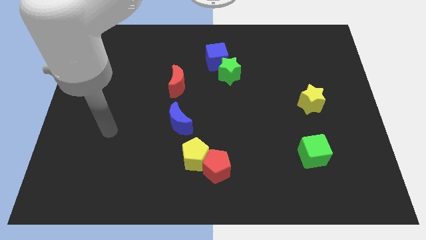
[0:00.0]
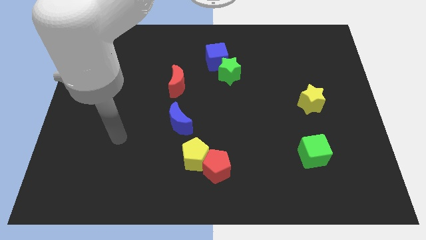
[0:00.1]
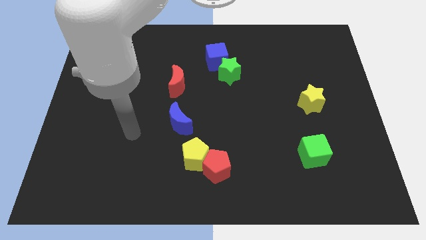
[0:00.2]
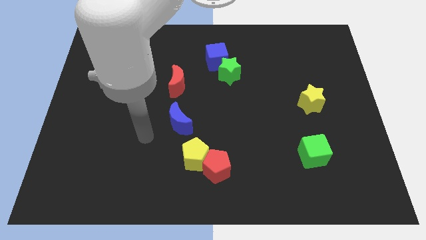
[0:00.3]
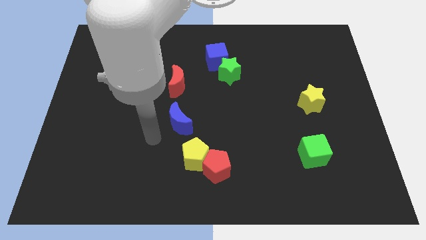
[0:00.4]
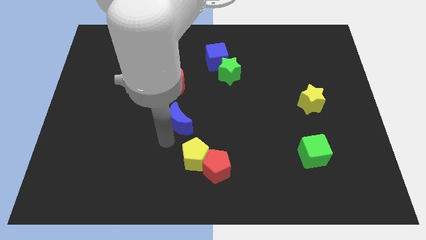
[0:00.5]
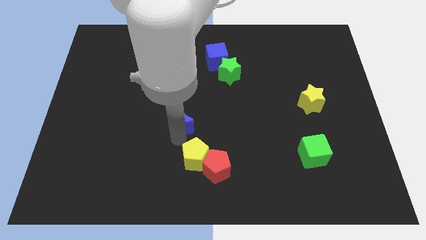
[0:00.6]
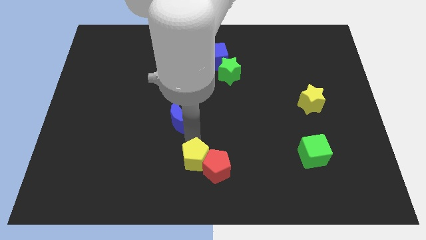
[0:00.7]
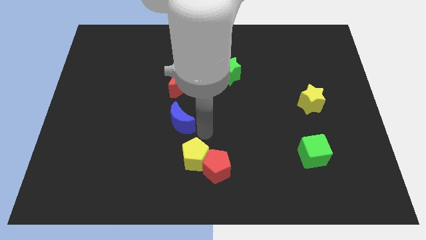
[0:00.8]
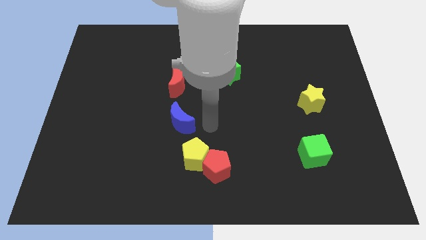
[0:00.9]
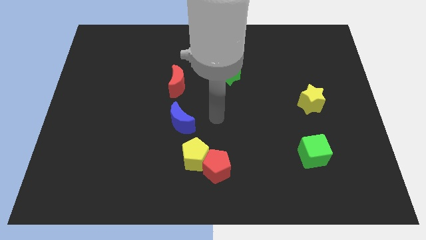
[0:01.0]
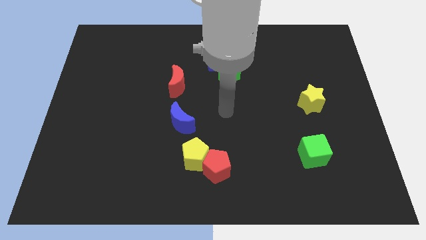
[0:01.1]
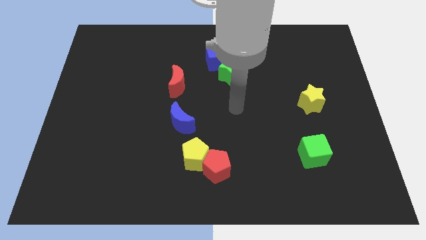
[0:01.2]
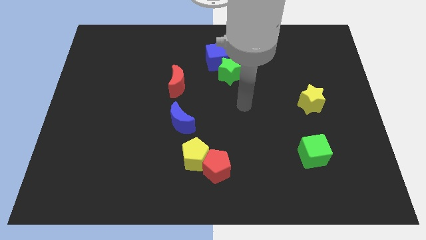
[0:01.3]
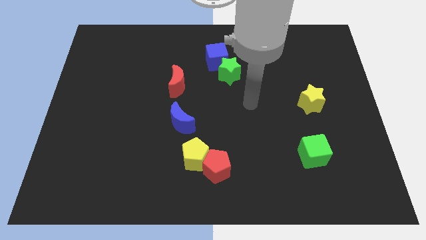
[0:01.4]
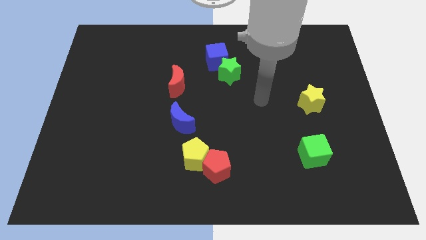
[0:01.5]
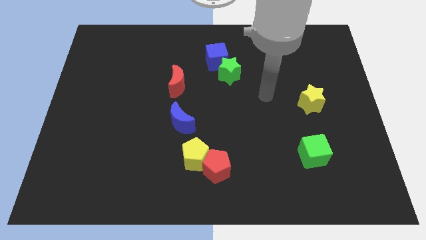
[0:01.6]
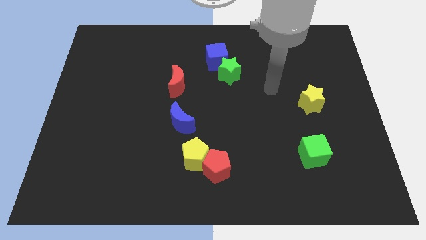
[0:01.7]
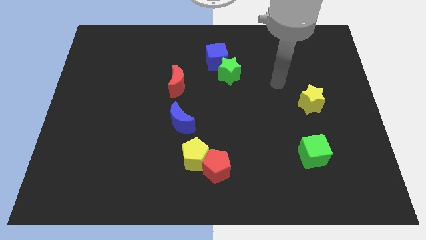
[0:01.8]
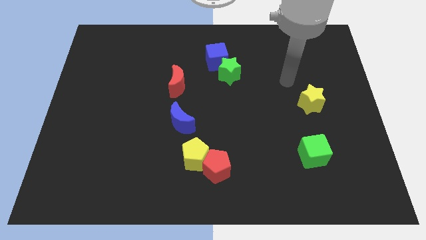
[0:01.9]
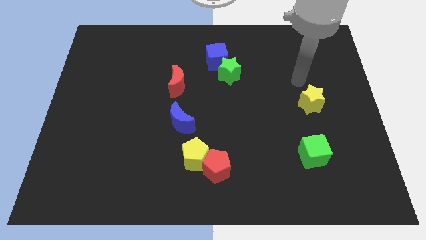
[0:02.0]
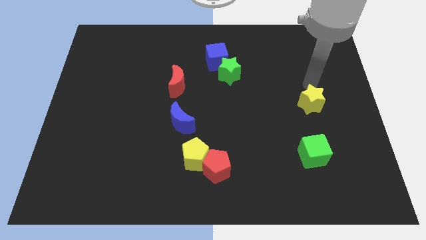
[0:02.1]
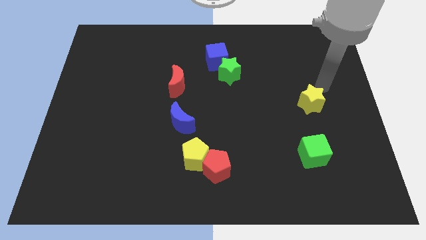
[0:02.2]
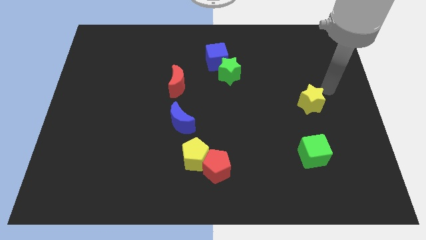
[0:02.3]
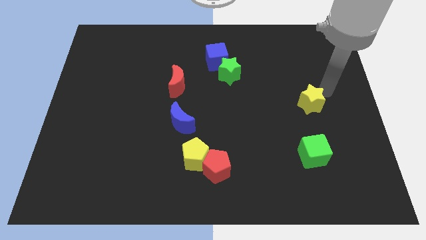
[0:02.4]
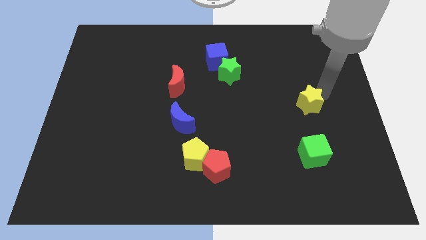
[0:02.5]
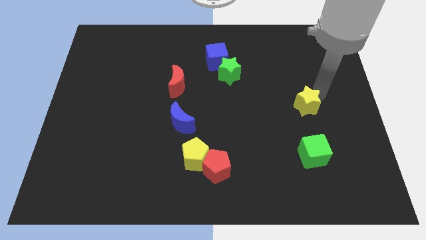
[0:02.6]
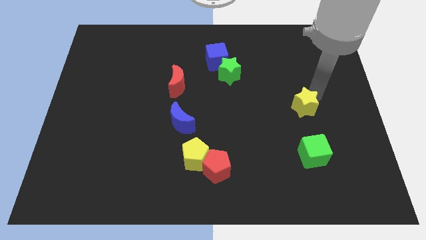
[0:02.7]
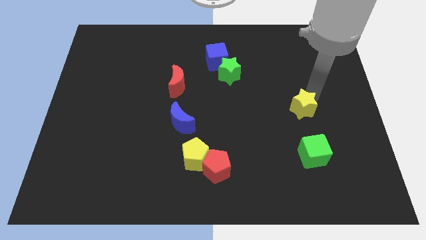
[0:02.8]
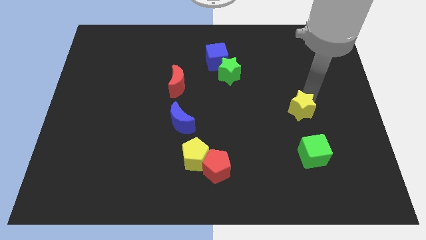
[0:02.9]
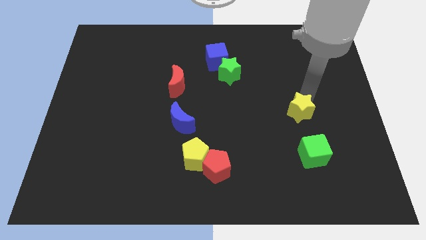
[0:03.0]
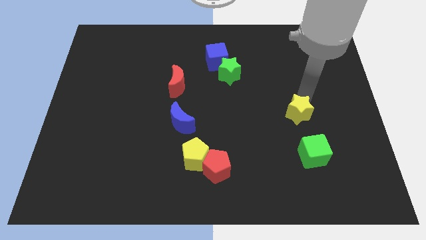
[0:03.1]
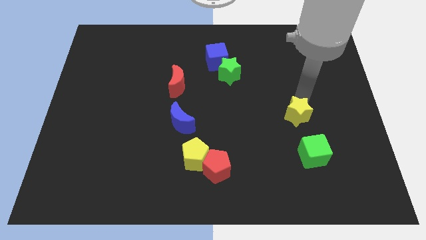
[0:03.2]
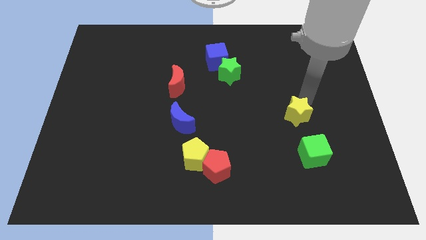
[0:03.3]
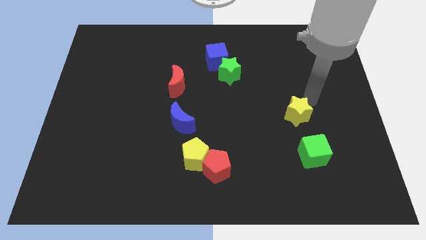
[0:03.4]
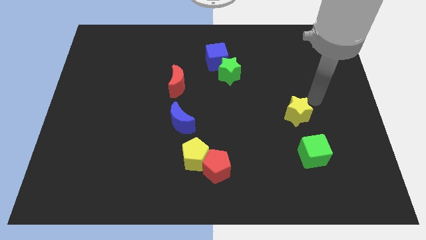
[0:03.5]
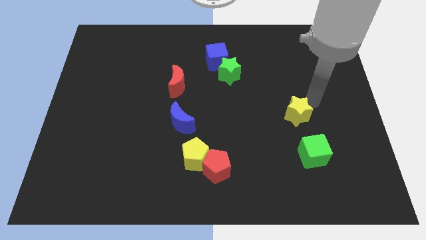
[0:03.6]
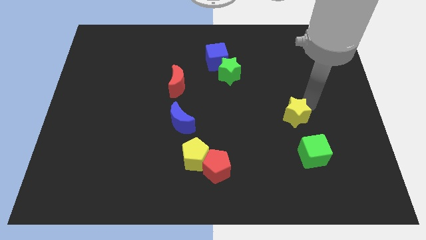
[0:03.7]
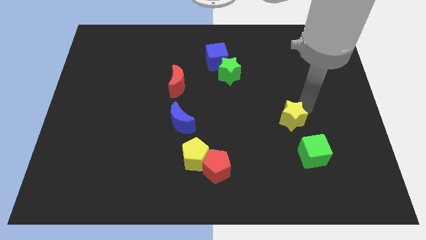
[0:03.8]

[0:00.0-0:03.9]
push the yellow star down and left a bit

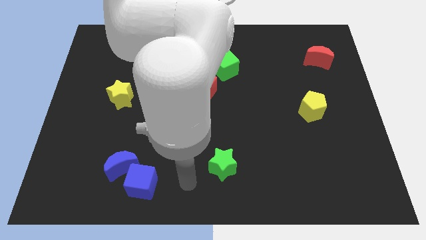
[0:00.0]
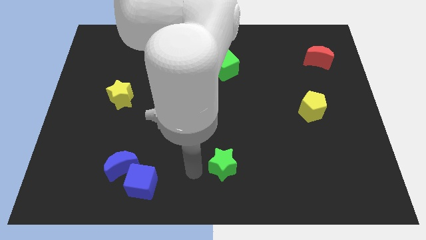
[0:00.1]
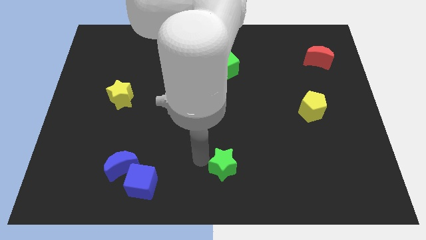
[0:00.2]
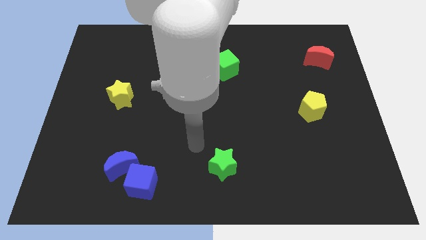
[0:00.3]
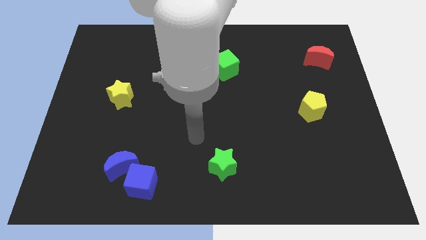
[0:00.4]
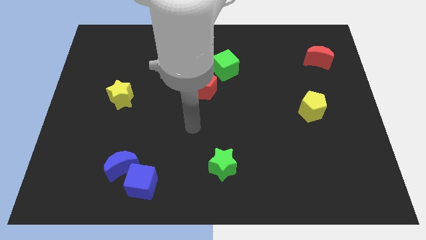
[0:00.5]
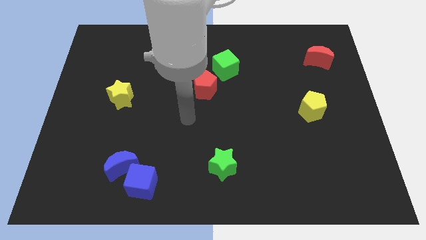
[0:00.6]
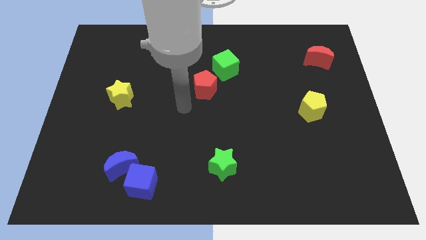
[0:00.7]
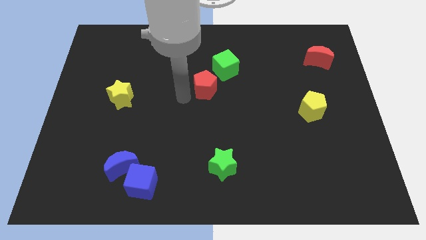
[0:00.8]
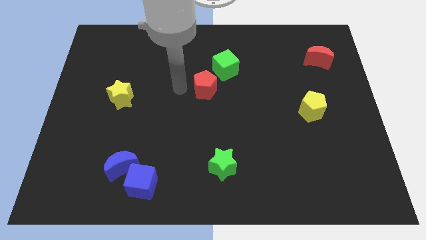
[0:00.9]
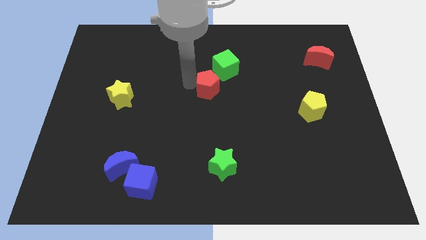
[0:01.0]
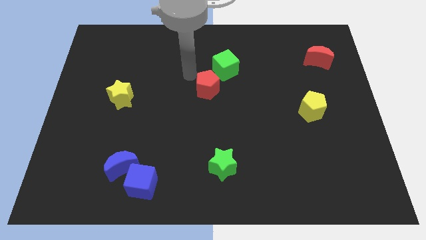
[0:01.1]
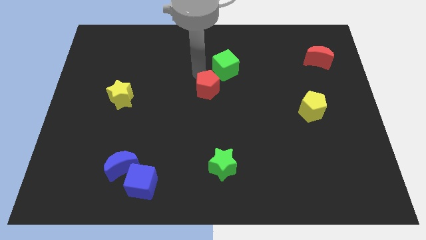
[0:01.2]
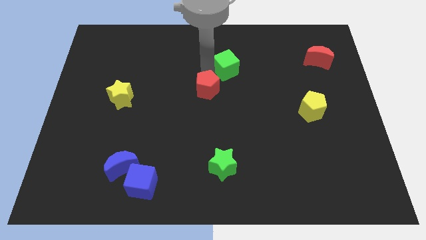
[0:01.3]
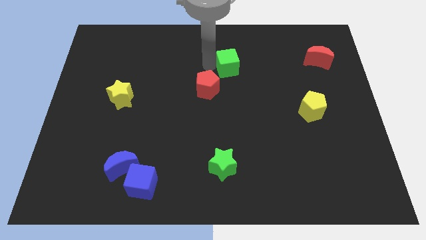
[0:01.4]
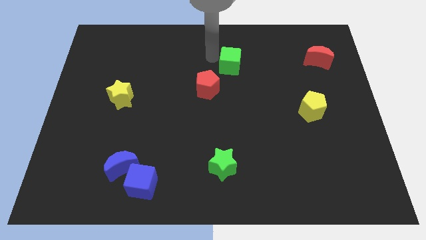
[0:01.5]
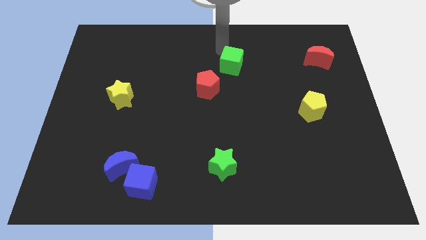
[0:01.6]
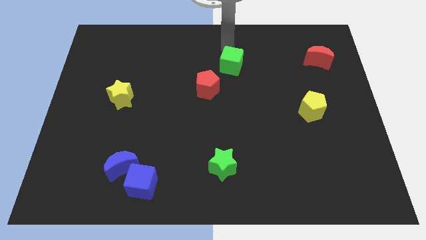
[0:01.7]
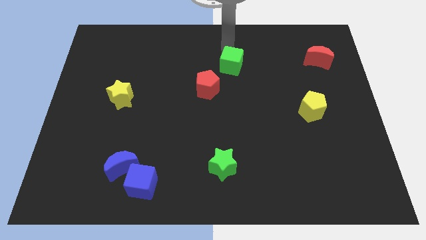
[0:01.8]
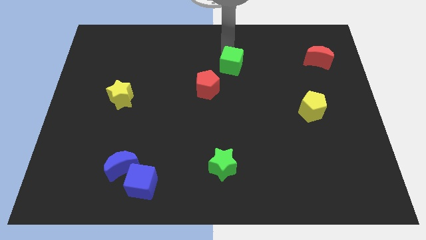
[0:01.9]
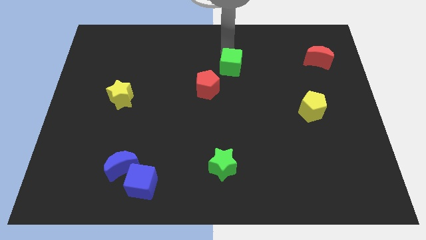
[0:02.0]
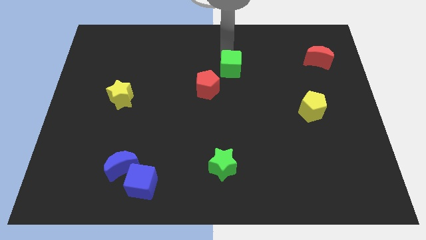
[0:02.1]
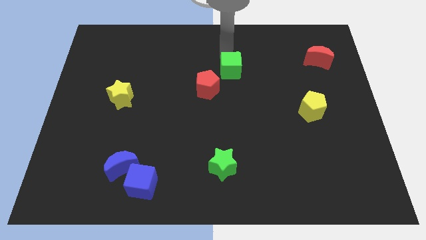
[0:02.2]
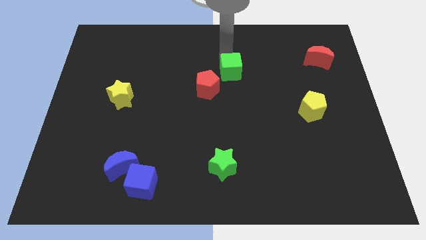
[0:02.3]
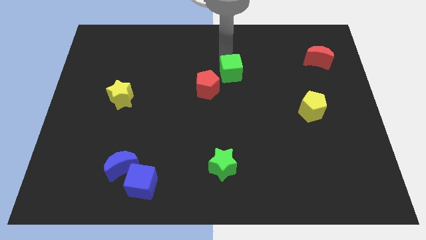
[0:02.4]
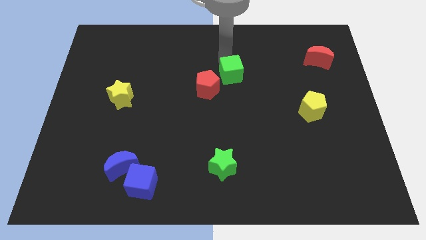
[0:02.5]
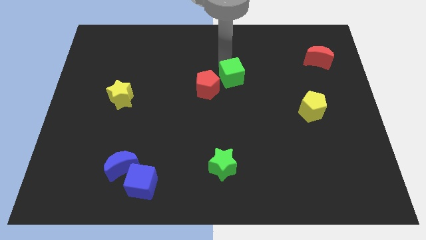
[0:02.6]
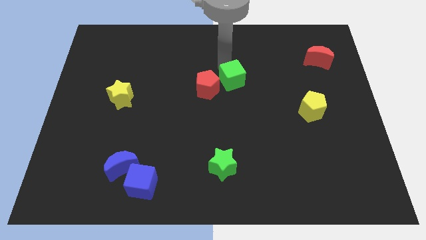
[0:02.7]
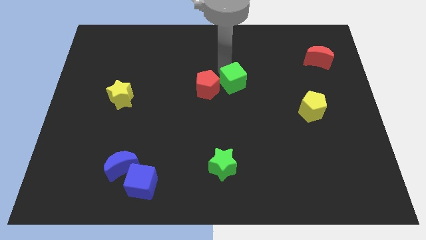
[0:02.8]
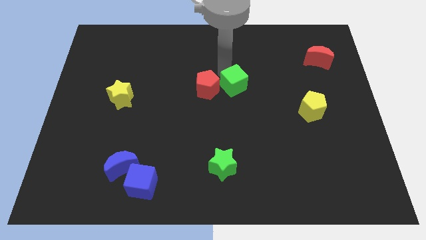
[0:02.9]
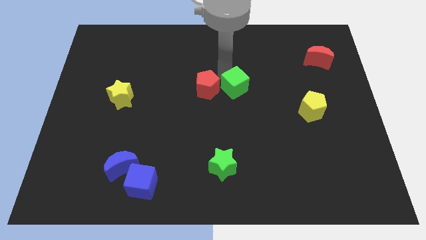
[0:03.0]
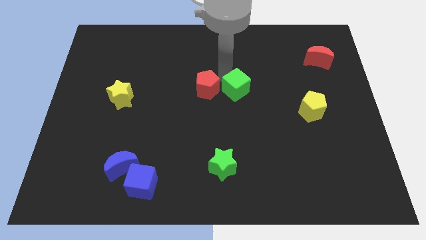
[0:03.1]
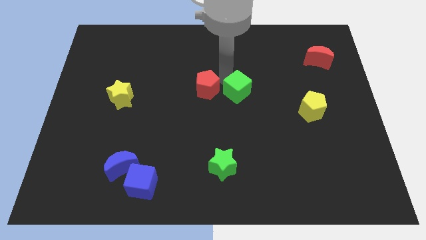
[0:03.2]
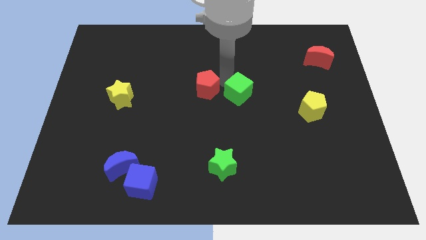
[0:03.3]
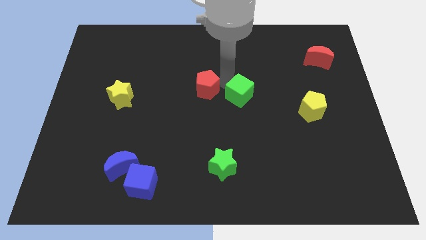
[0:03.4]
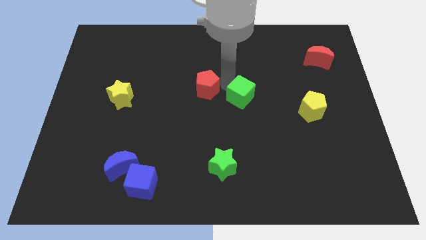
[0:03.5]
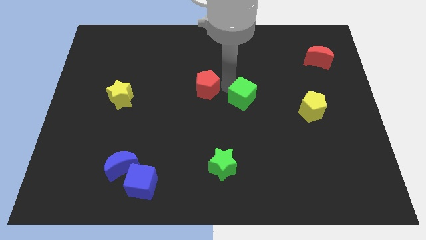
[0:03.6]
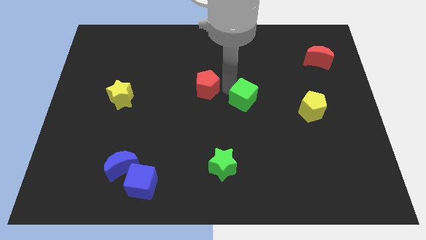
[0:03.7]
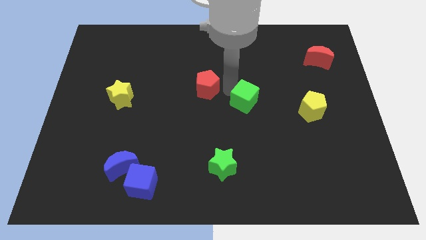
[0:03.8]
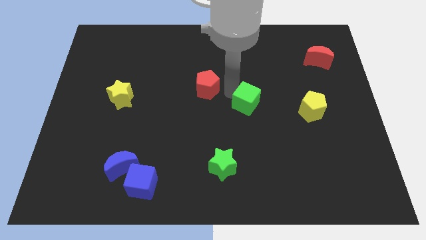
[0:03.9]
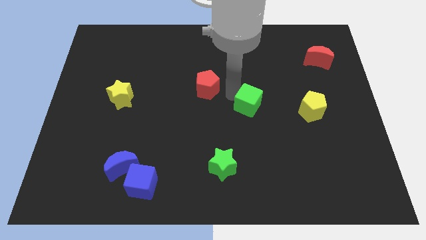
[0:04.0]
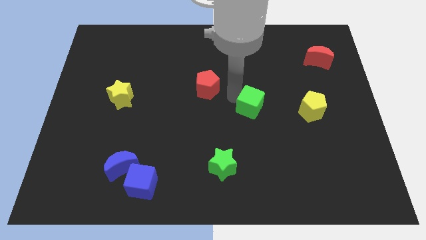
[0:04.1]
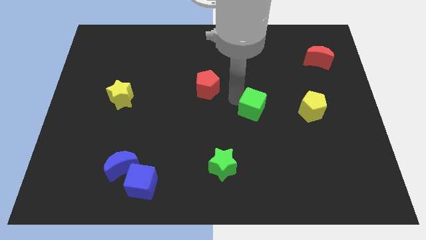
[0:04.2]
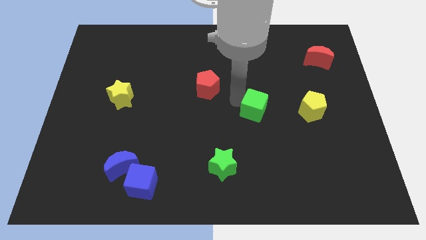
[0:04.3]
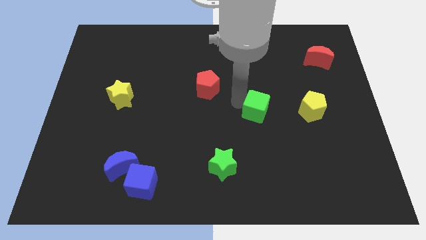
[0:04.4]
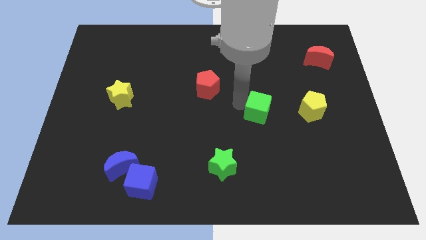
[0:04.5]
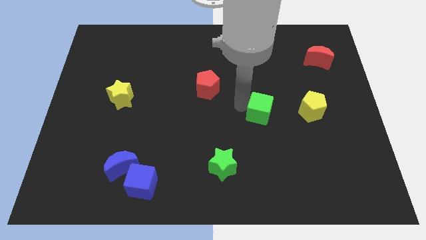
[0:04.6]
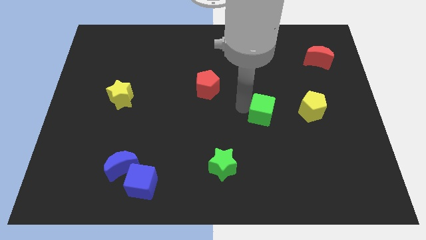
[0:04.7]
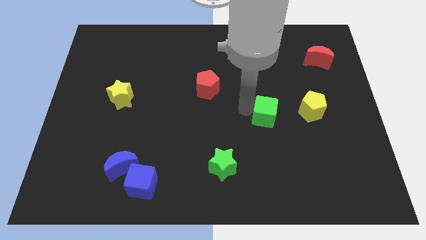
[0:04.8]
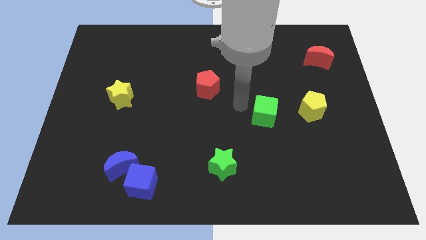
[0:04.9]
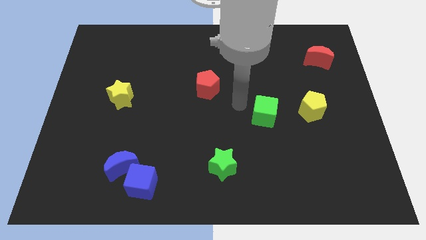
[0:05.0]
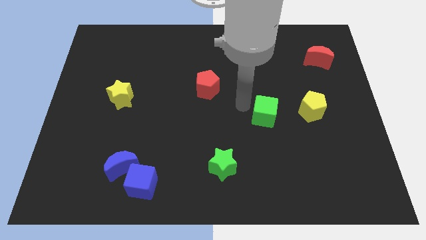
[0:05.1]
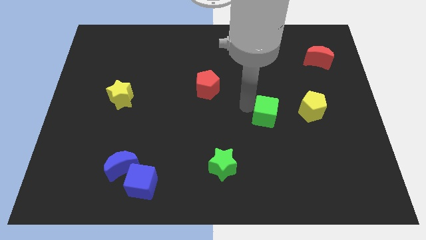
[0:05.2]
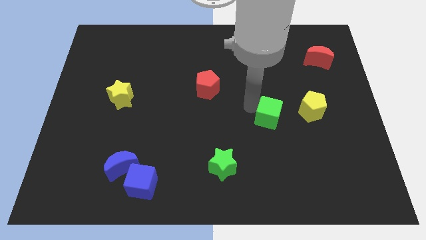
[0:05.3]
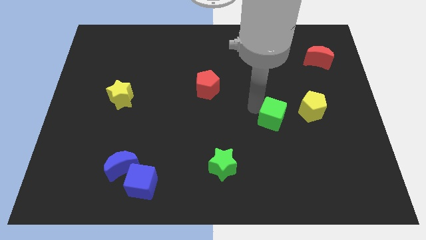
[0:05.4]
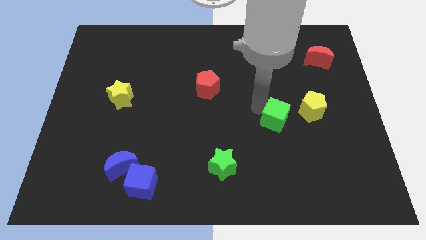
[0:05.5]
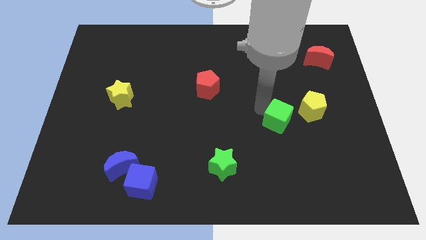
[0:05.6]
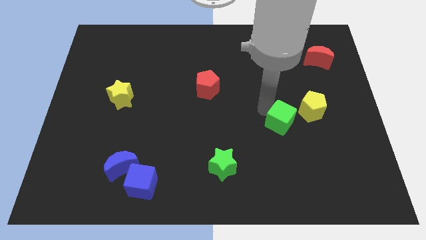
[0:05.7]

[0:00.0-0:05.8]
push the green cube downwards and then right
